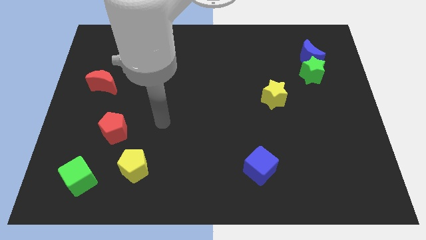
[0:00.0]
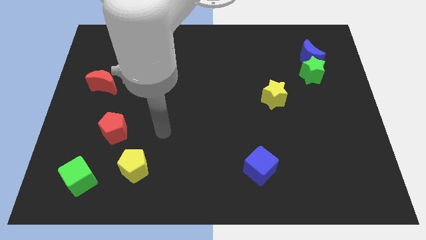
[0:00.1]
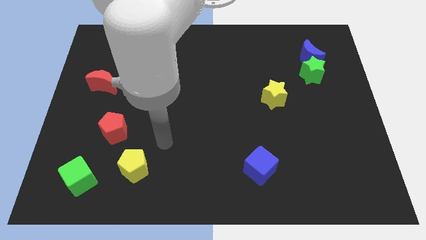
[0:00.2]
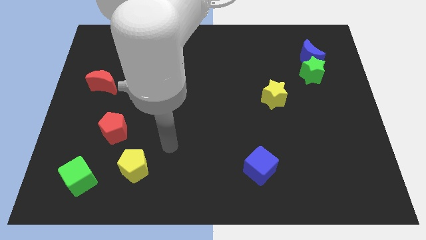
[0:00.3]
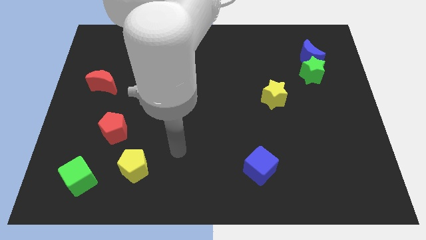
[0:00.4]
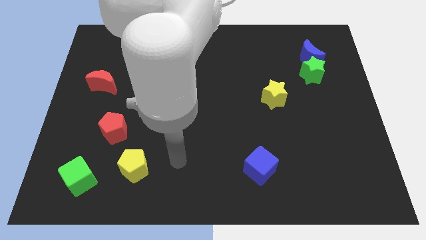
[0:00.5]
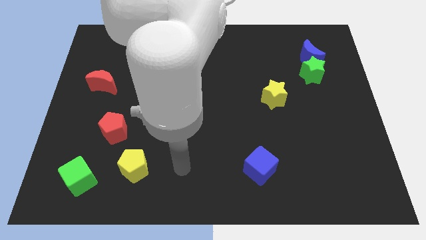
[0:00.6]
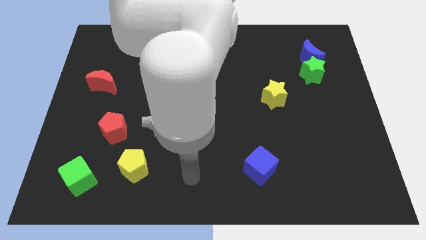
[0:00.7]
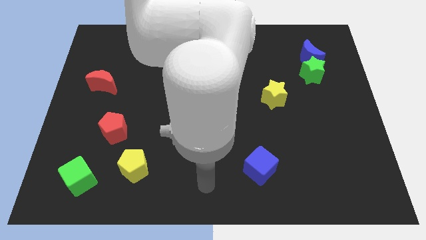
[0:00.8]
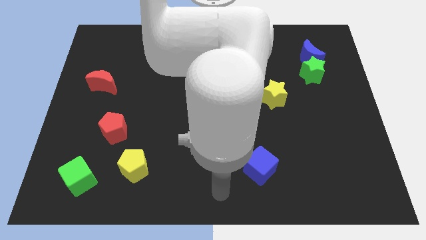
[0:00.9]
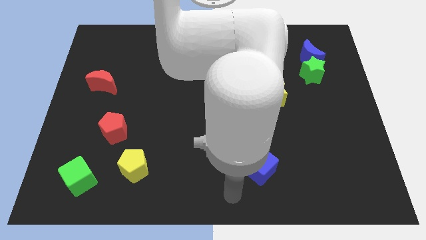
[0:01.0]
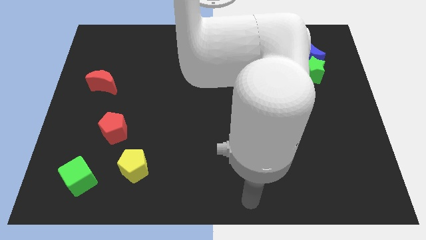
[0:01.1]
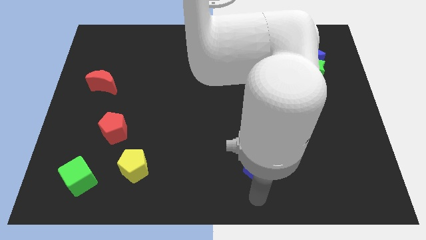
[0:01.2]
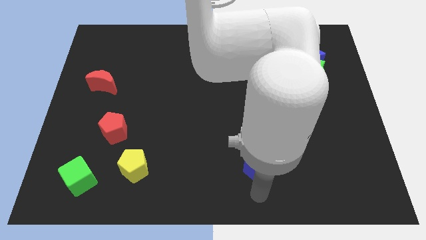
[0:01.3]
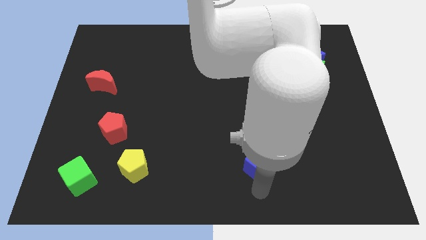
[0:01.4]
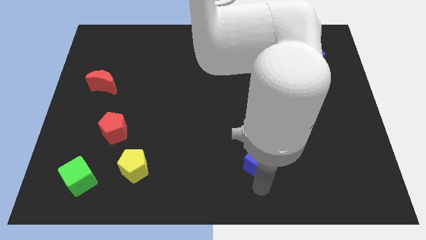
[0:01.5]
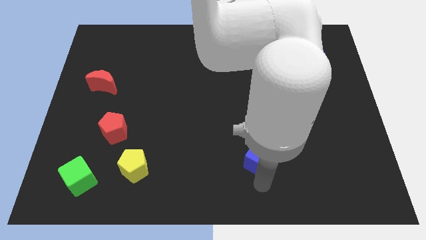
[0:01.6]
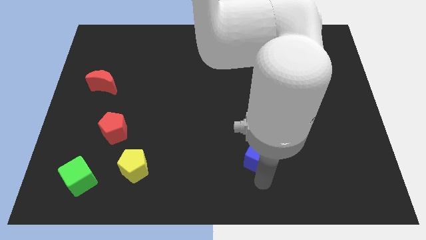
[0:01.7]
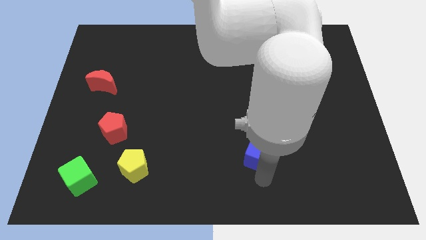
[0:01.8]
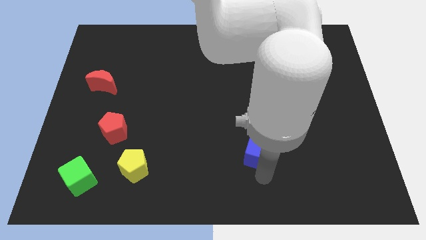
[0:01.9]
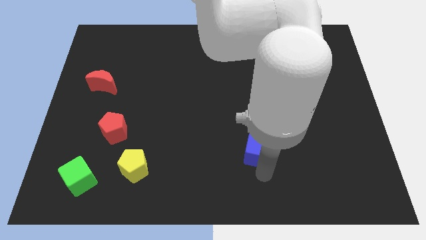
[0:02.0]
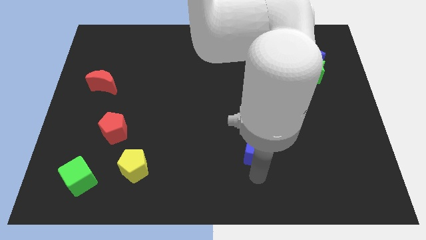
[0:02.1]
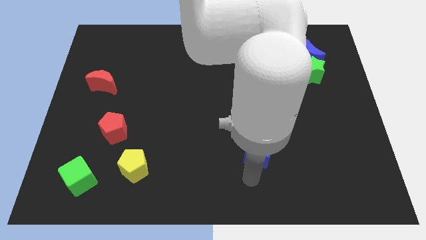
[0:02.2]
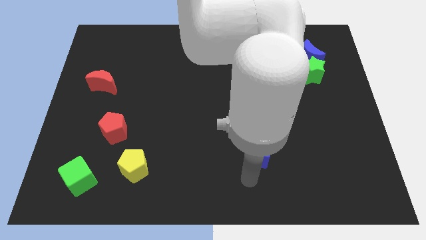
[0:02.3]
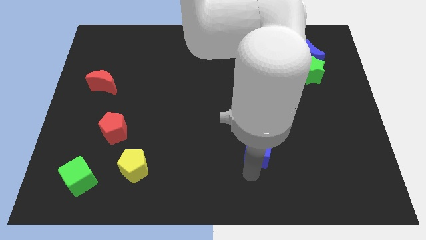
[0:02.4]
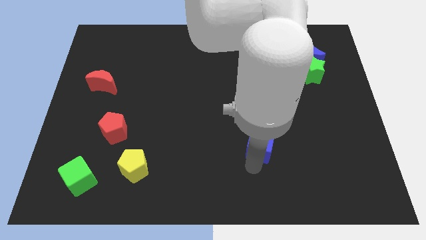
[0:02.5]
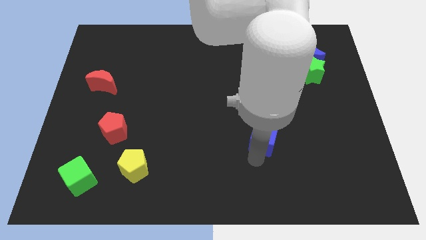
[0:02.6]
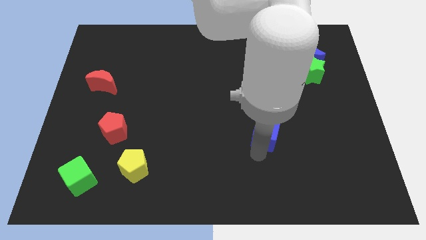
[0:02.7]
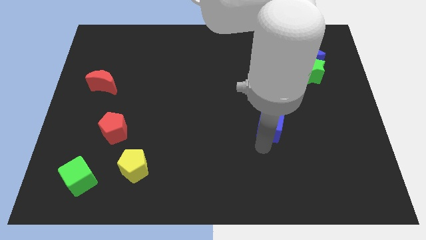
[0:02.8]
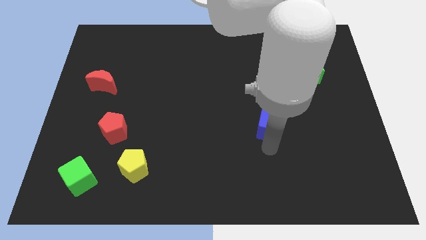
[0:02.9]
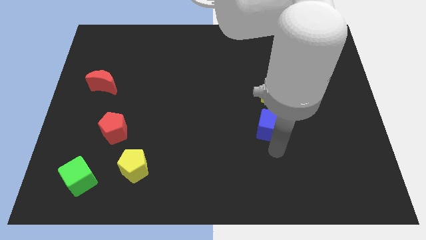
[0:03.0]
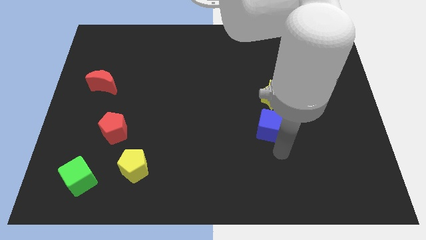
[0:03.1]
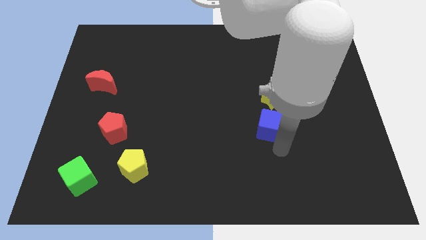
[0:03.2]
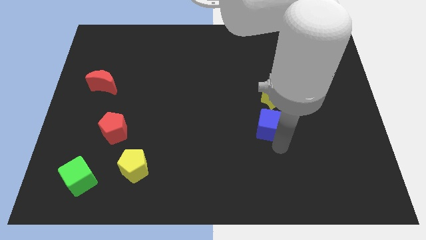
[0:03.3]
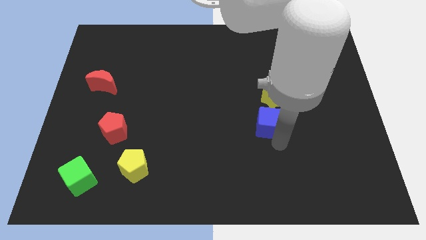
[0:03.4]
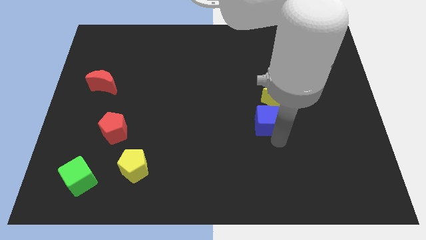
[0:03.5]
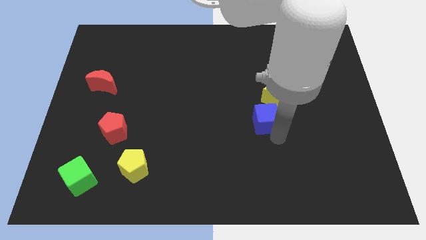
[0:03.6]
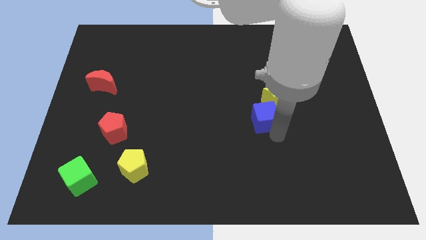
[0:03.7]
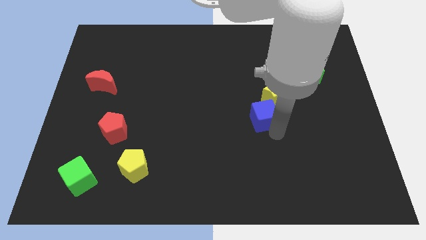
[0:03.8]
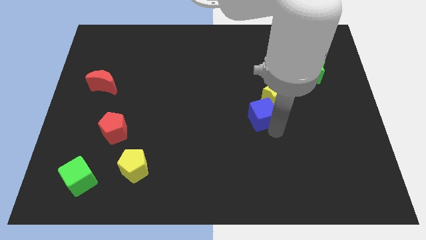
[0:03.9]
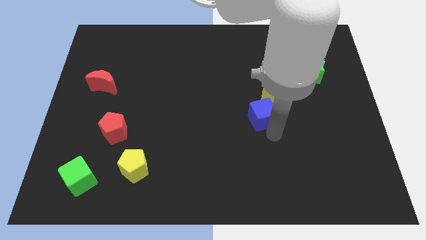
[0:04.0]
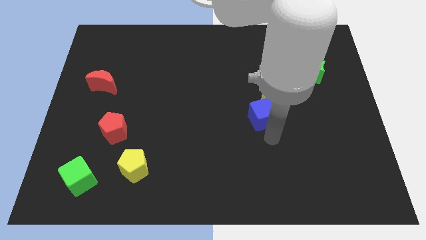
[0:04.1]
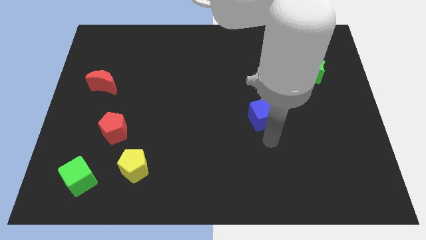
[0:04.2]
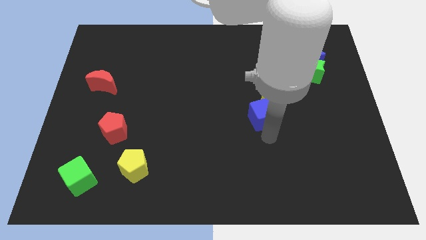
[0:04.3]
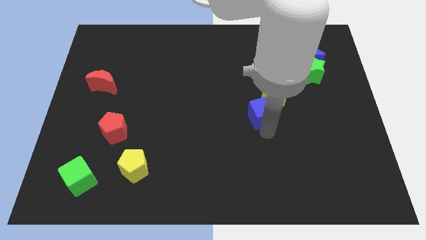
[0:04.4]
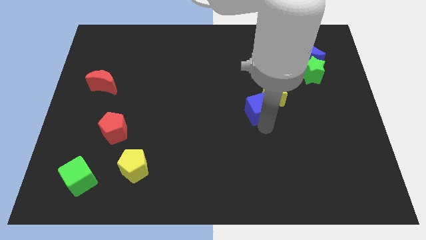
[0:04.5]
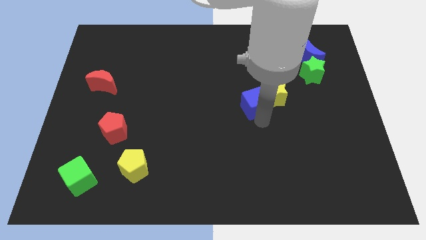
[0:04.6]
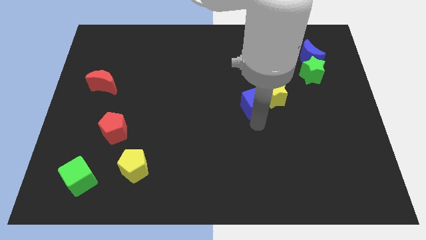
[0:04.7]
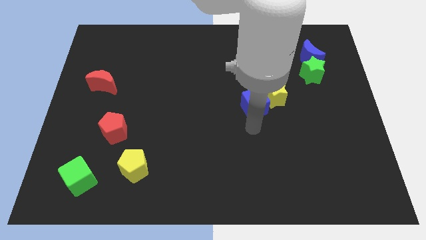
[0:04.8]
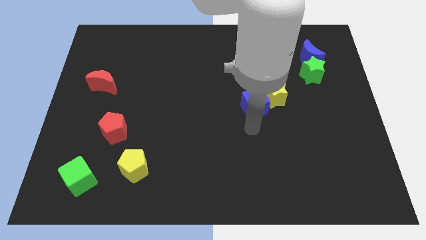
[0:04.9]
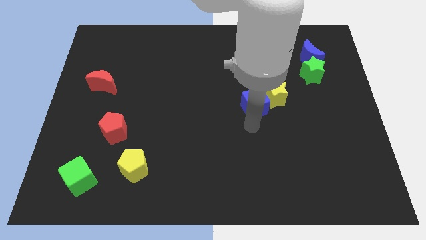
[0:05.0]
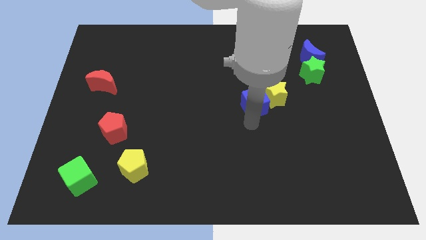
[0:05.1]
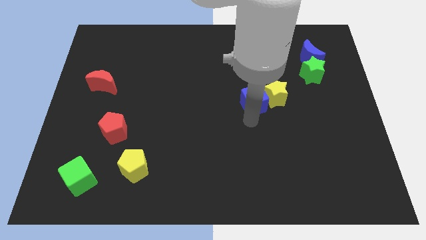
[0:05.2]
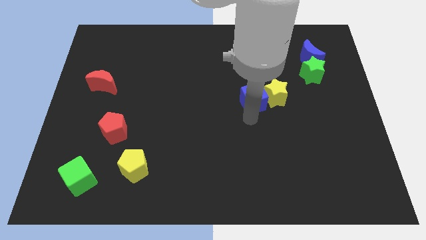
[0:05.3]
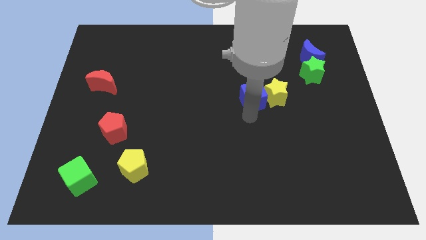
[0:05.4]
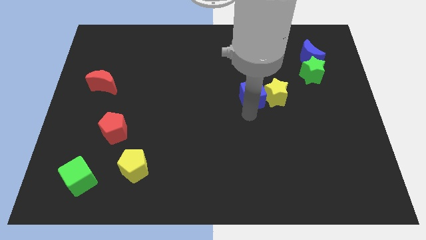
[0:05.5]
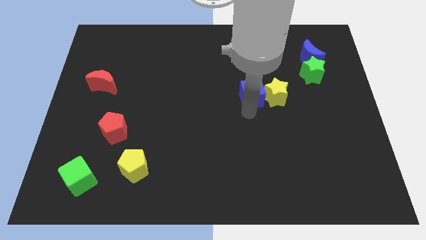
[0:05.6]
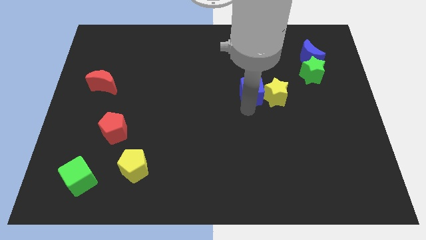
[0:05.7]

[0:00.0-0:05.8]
slide the blue cube upwards

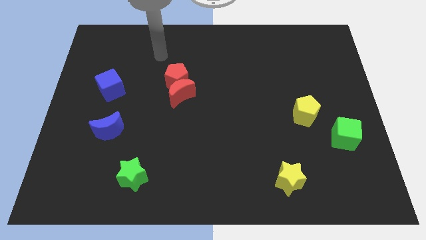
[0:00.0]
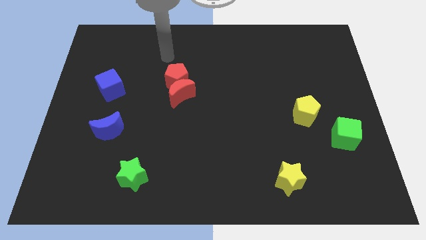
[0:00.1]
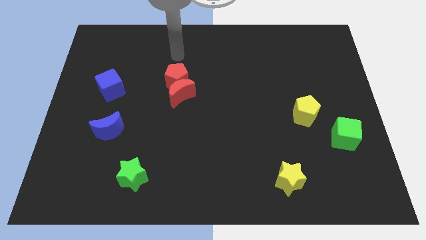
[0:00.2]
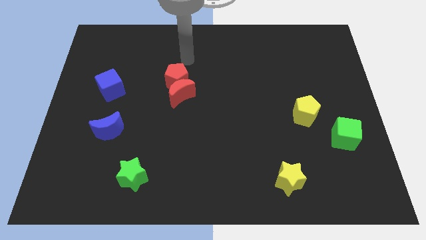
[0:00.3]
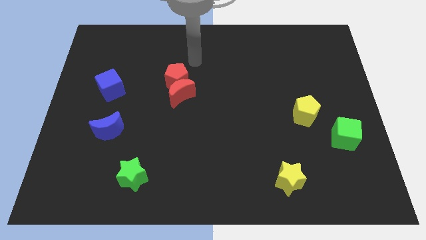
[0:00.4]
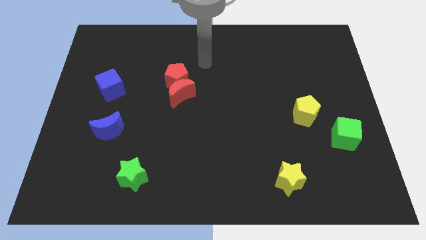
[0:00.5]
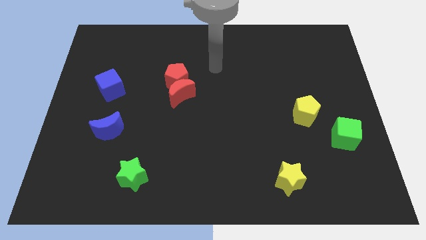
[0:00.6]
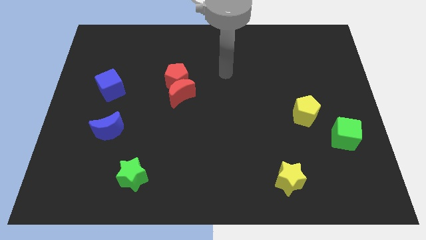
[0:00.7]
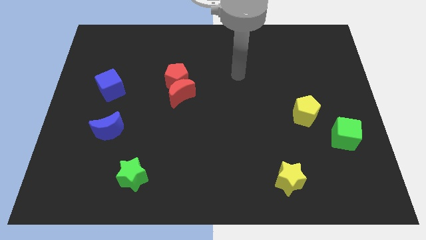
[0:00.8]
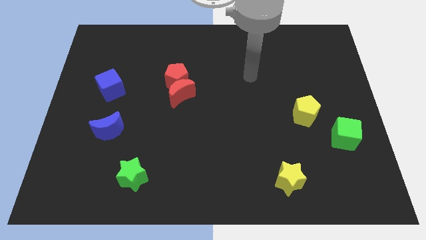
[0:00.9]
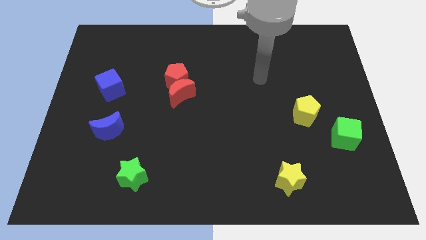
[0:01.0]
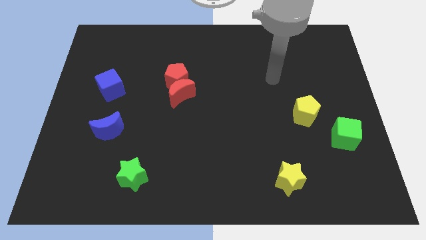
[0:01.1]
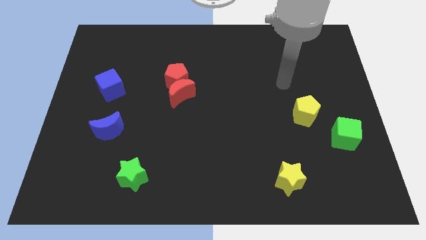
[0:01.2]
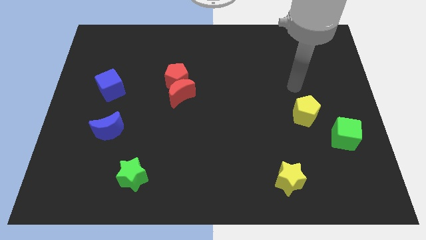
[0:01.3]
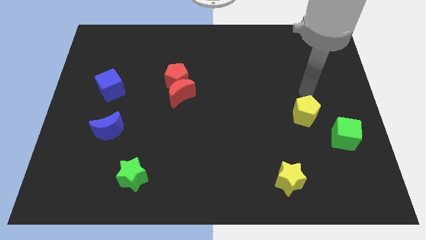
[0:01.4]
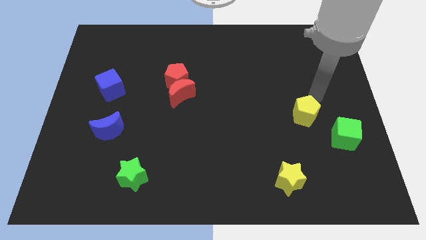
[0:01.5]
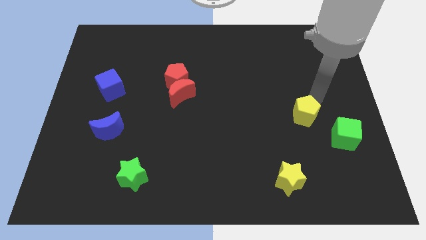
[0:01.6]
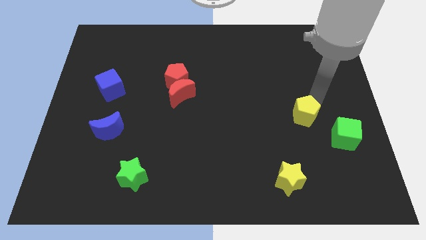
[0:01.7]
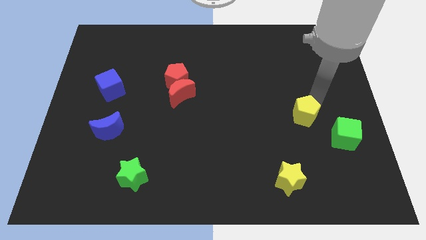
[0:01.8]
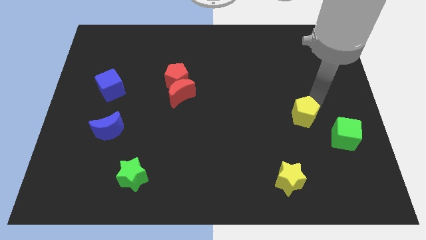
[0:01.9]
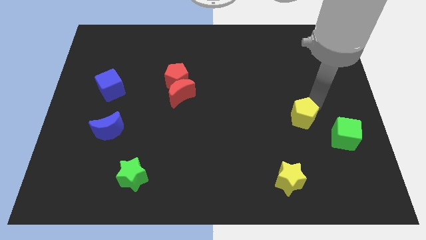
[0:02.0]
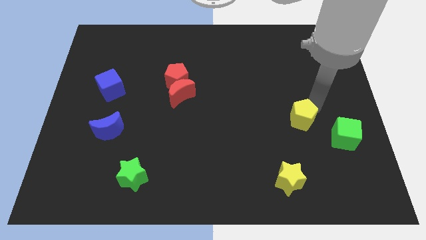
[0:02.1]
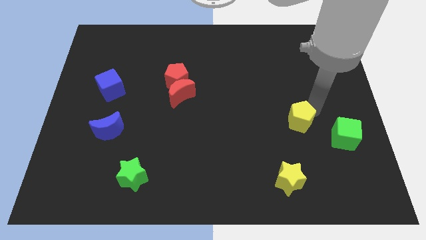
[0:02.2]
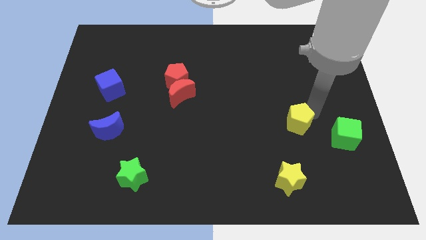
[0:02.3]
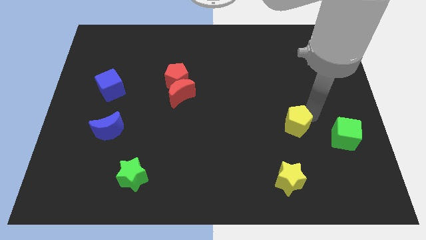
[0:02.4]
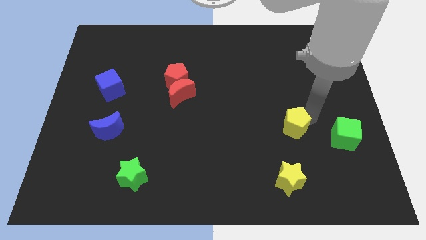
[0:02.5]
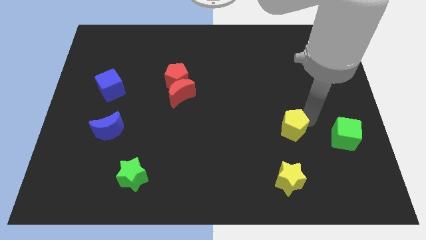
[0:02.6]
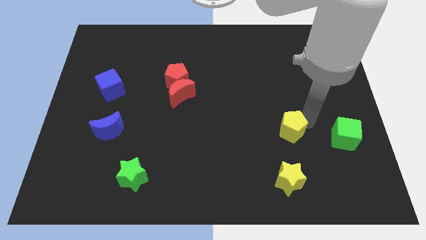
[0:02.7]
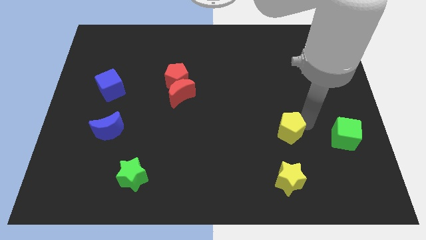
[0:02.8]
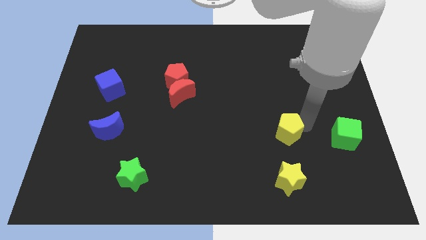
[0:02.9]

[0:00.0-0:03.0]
push the yellow pentagon downwards and to the left diagonally a little bit
